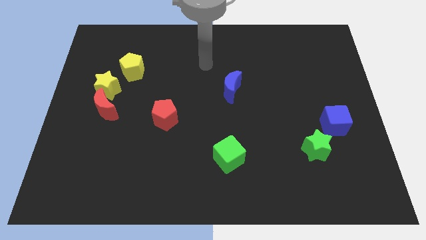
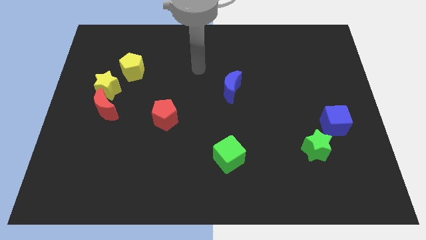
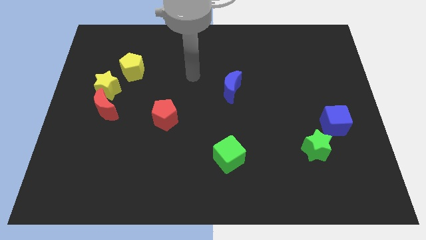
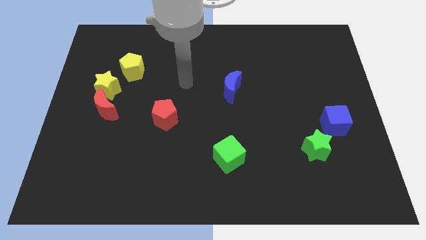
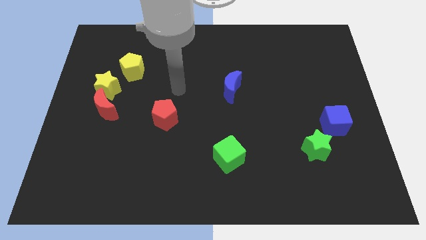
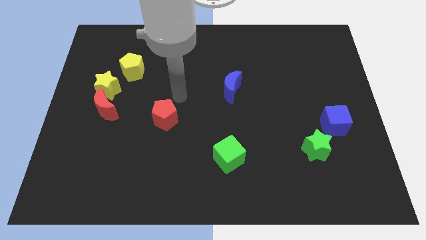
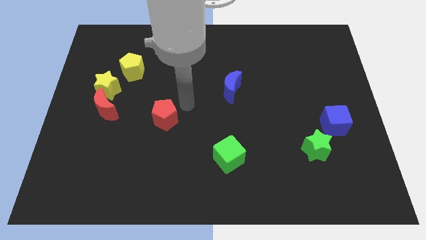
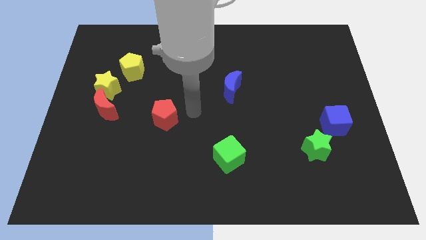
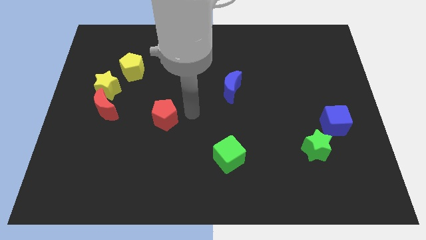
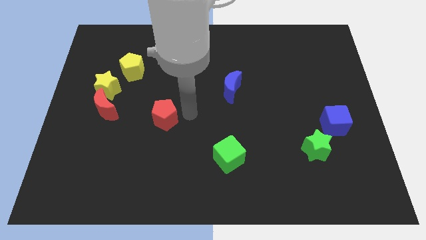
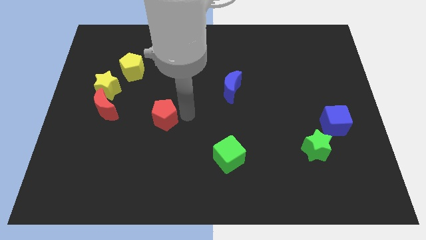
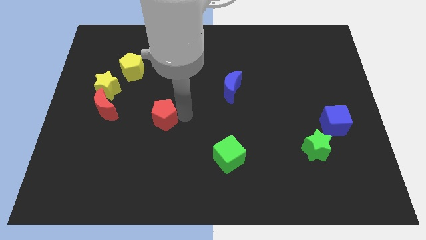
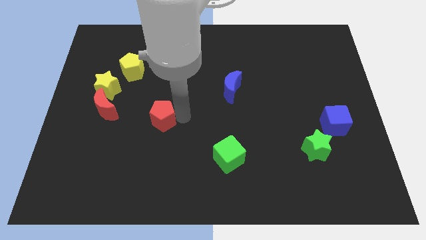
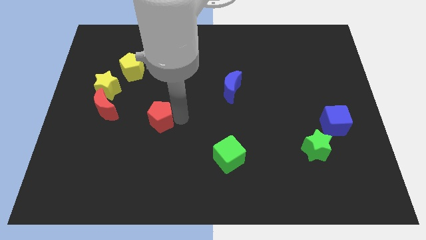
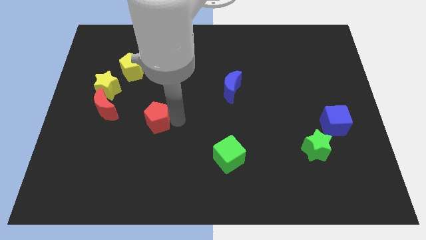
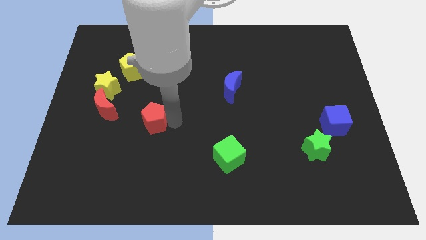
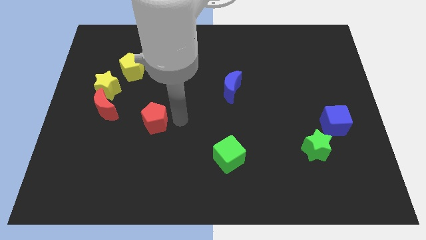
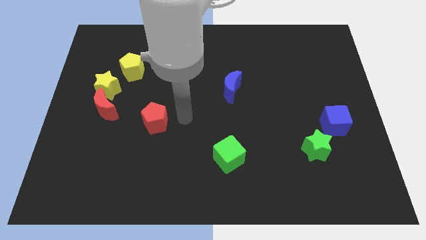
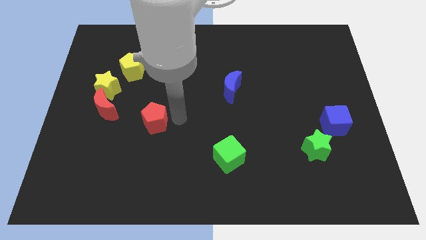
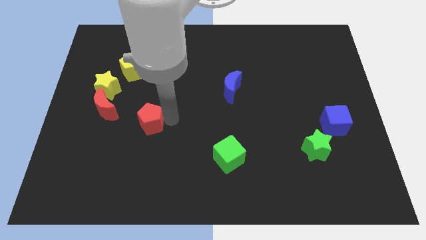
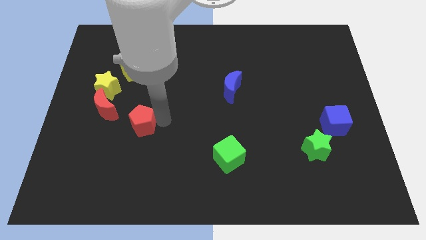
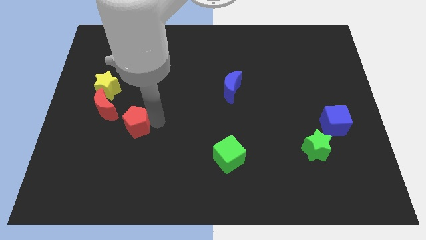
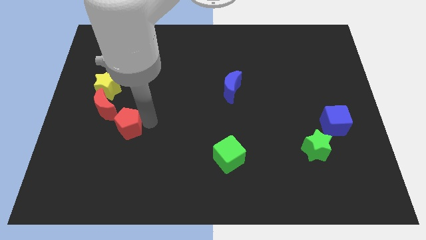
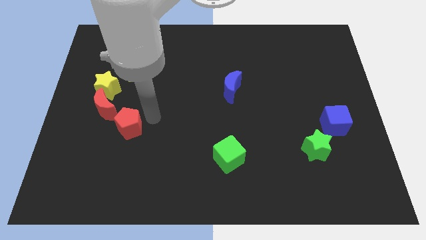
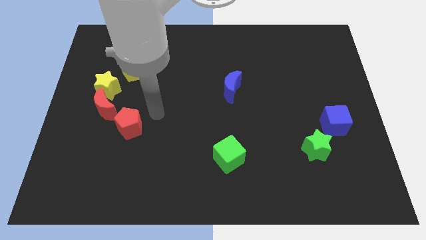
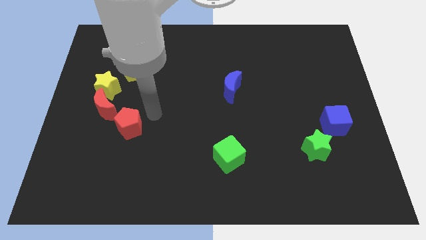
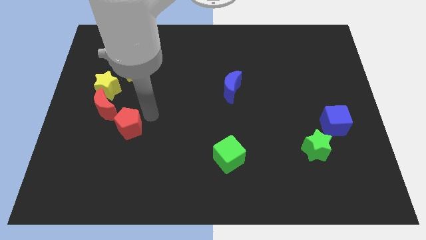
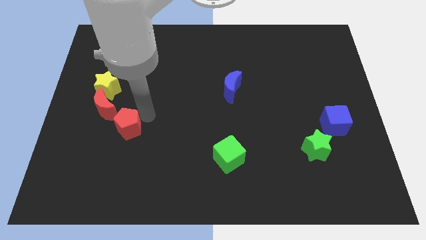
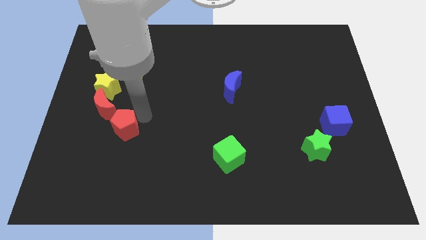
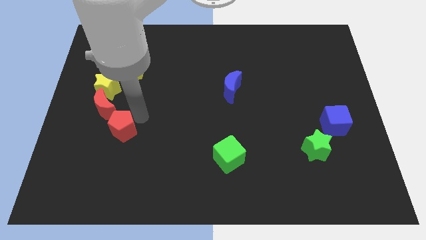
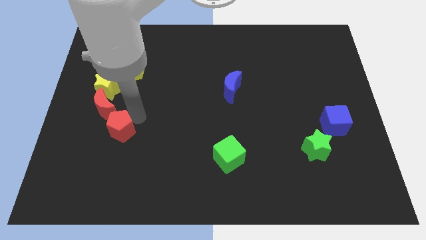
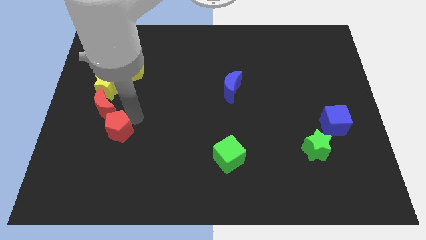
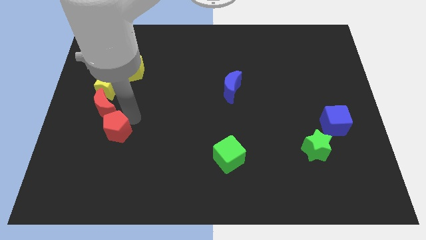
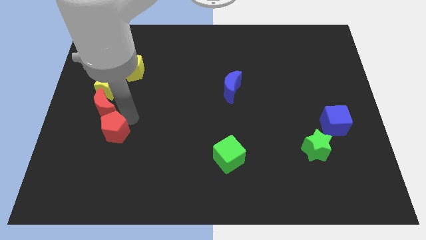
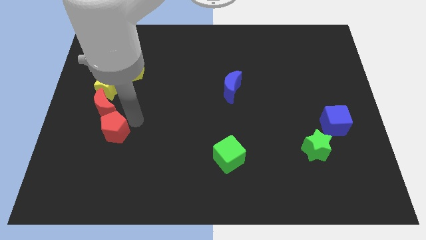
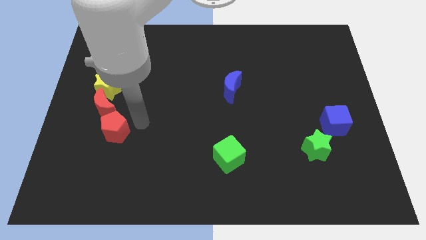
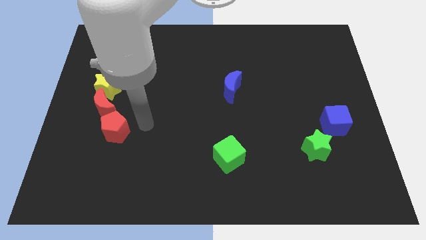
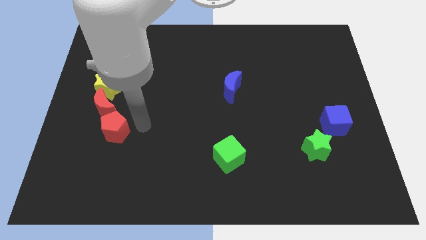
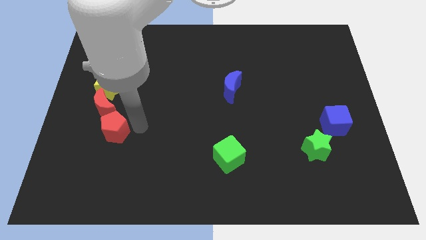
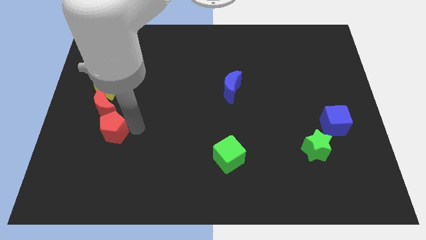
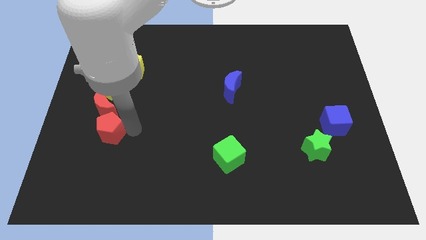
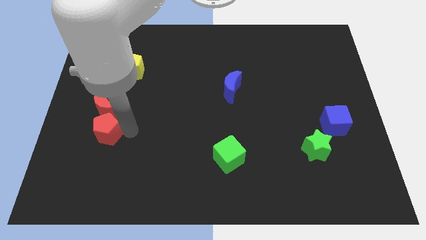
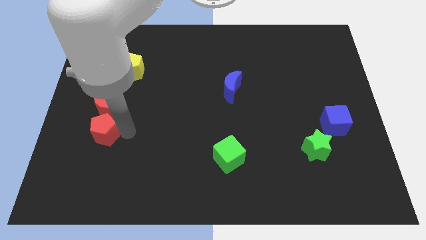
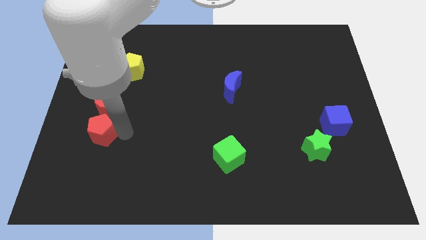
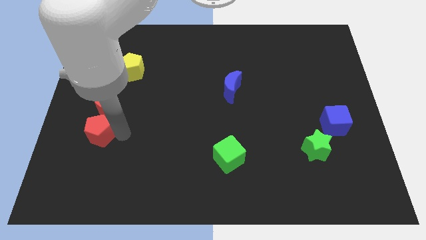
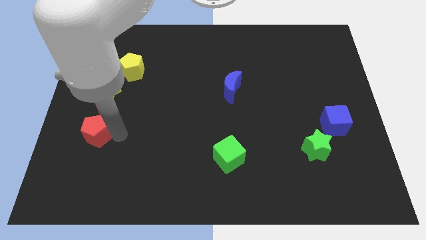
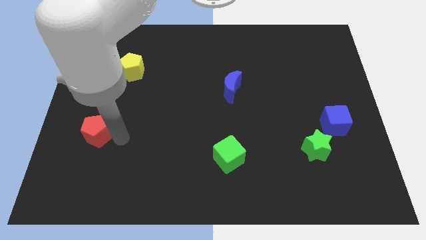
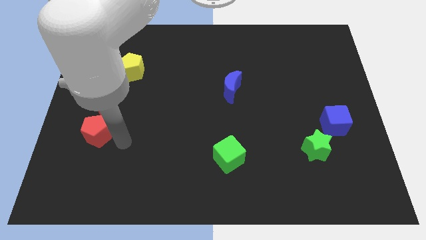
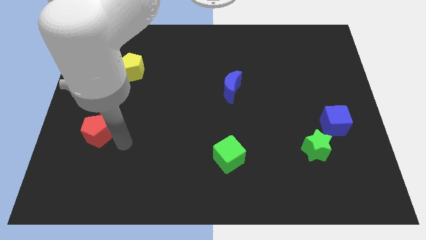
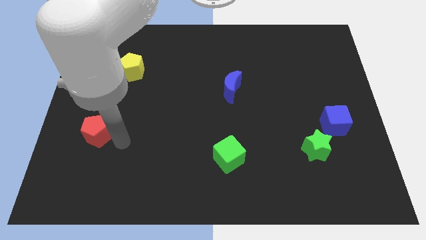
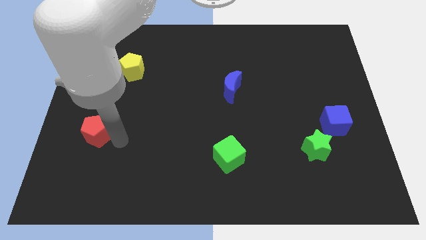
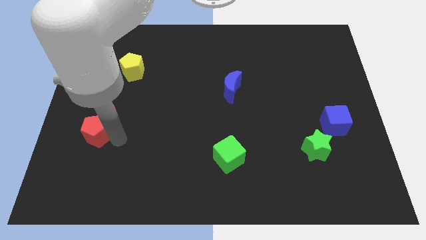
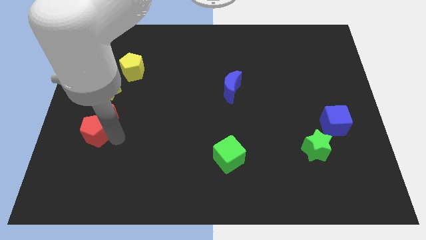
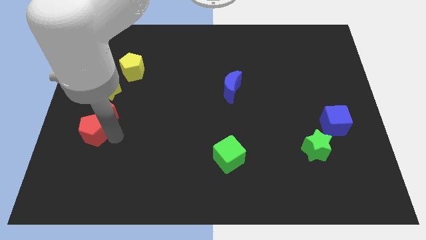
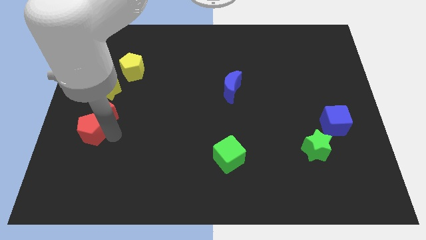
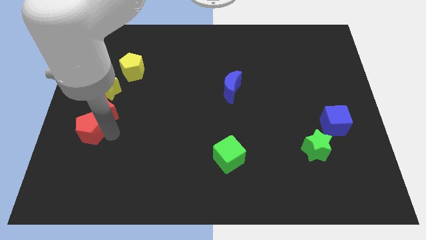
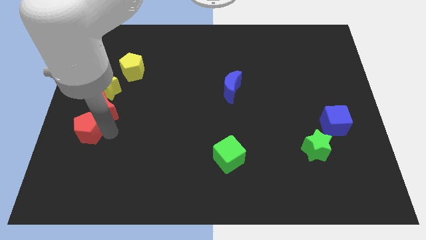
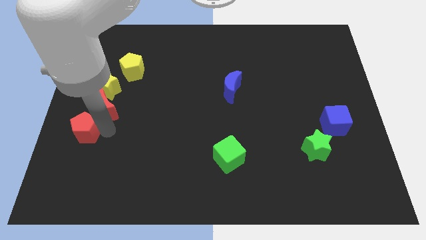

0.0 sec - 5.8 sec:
move the red pentagon to the left side

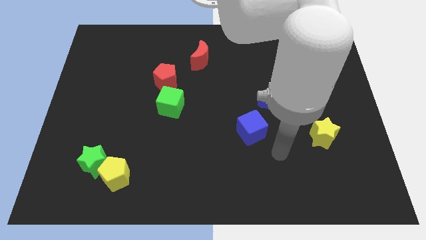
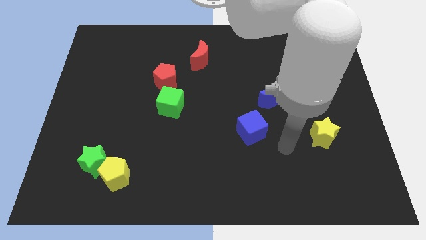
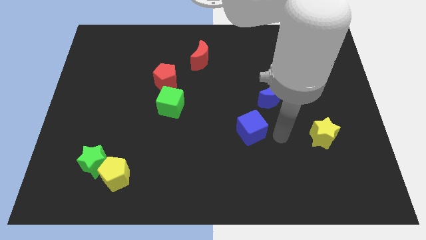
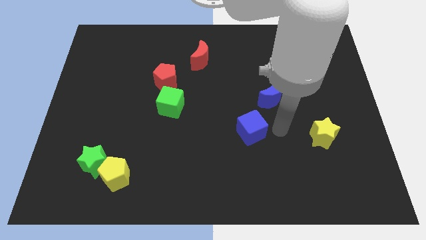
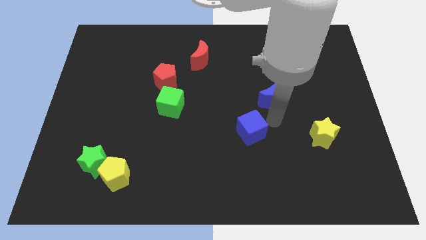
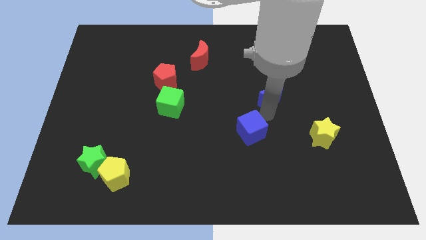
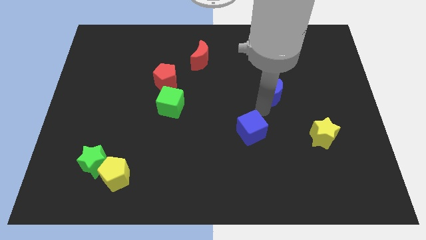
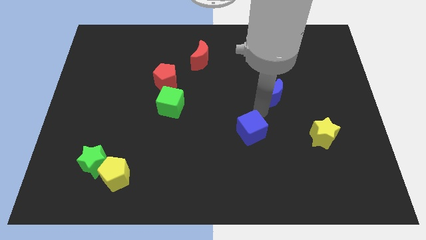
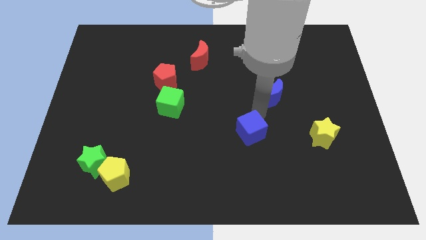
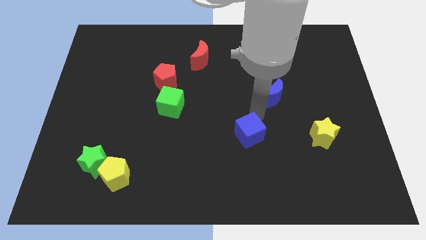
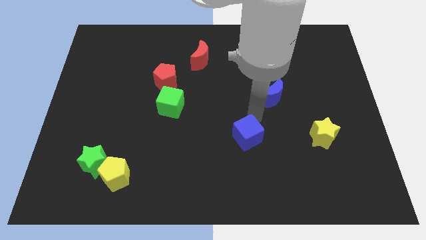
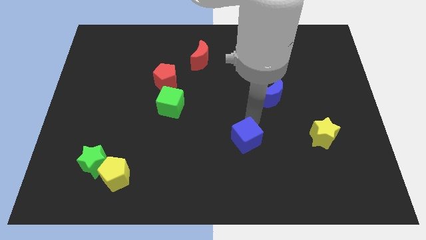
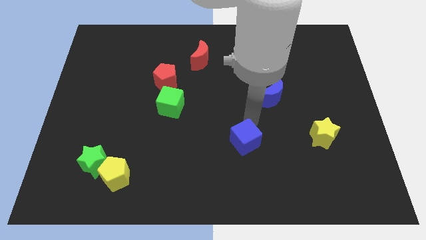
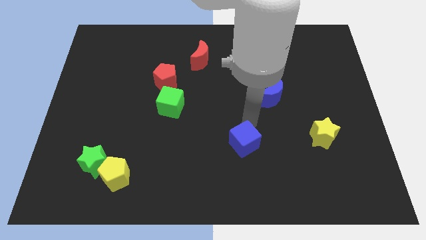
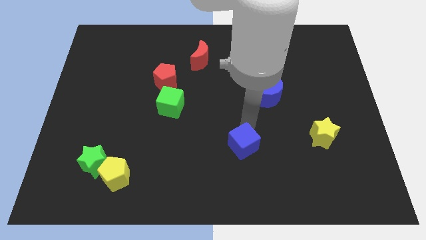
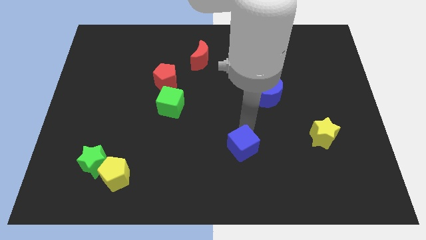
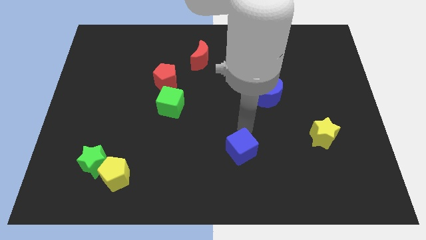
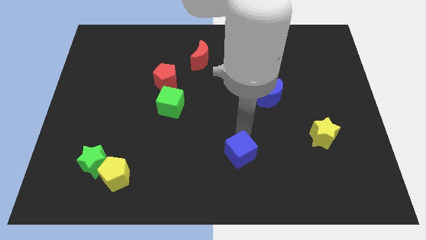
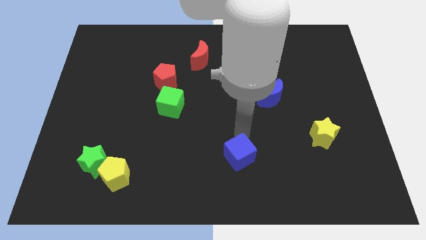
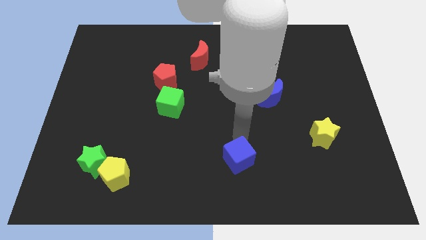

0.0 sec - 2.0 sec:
move the blue cube to the bottom side
